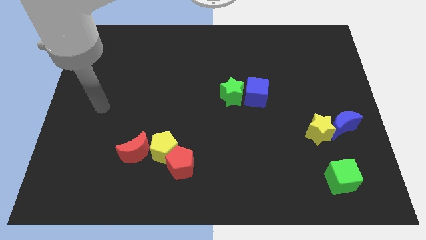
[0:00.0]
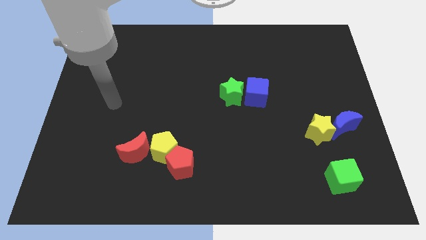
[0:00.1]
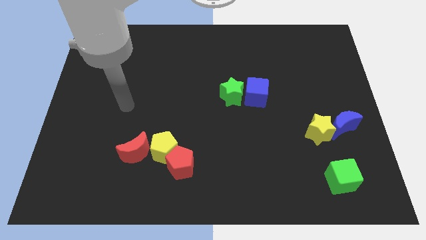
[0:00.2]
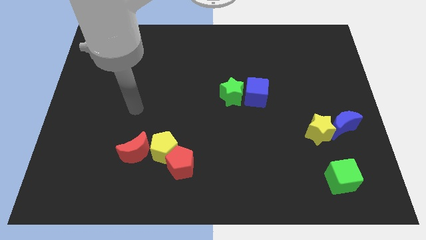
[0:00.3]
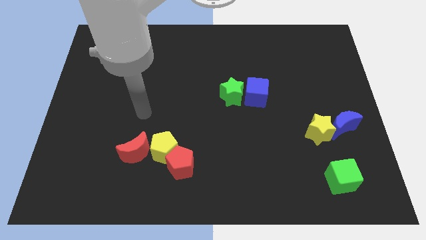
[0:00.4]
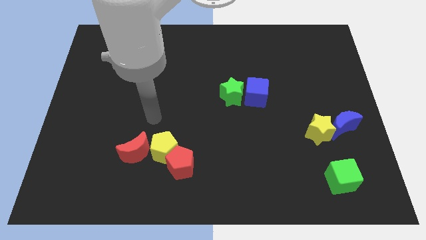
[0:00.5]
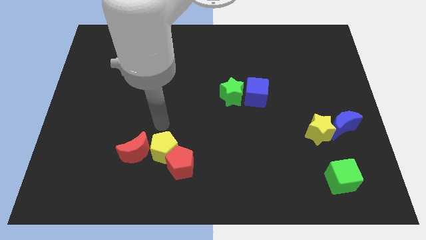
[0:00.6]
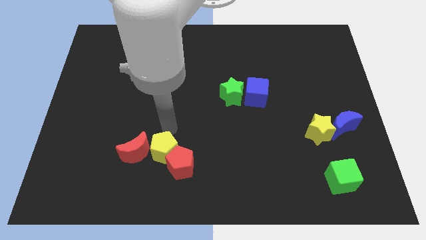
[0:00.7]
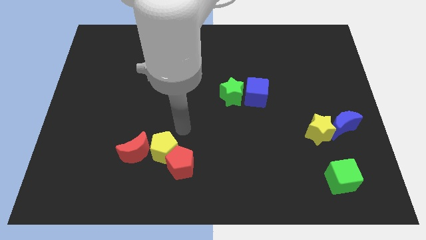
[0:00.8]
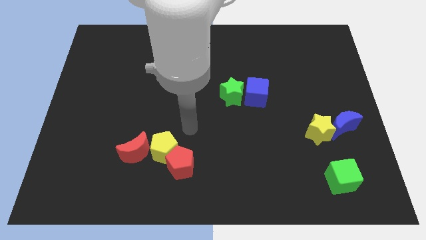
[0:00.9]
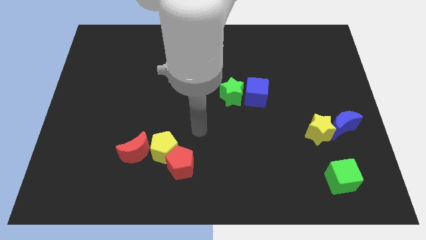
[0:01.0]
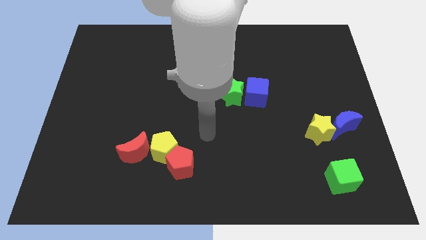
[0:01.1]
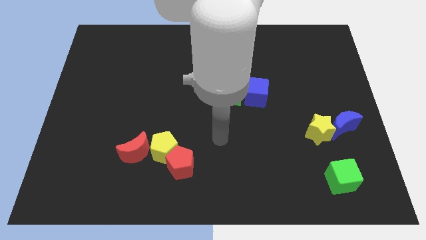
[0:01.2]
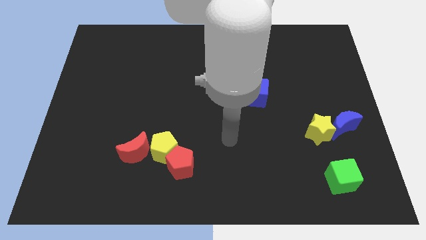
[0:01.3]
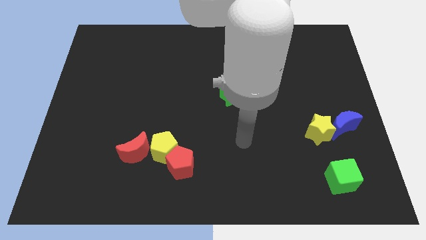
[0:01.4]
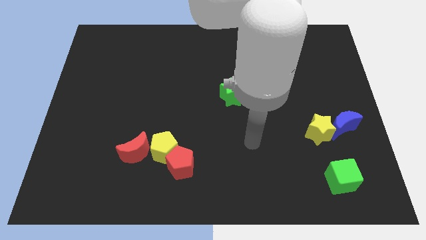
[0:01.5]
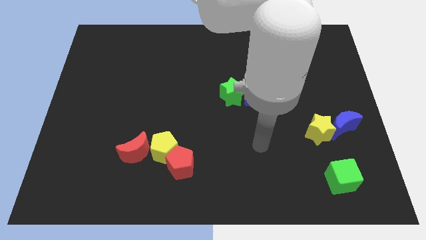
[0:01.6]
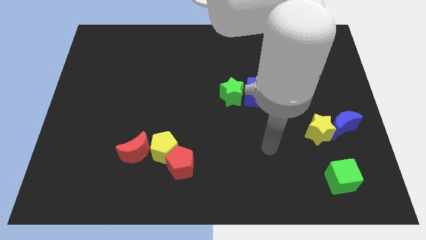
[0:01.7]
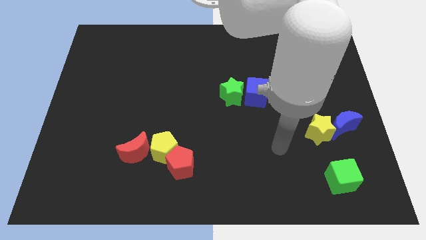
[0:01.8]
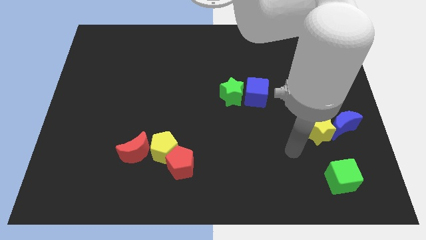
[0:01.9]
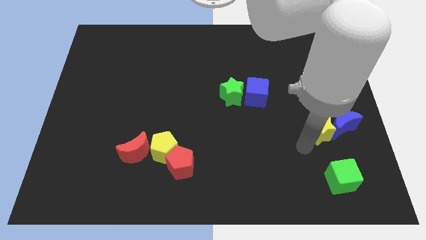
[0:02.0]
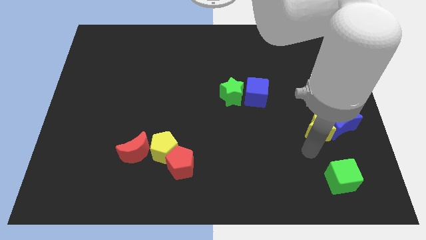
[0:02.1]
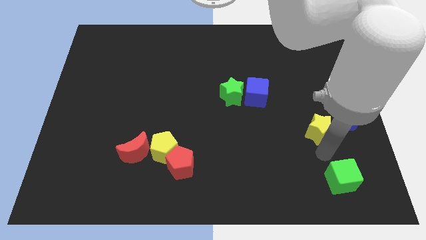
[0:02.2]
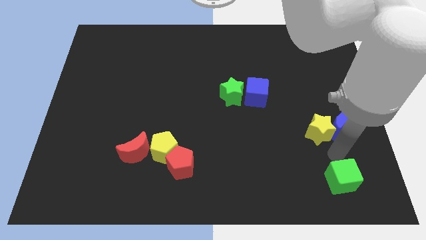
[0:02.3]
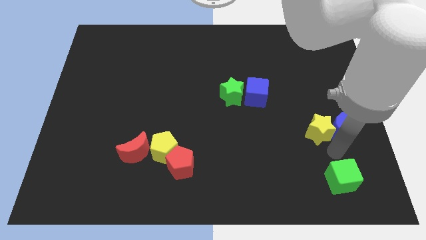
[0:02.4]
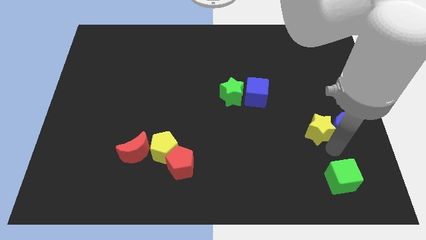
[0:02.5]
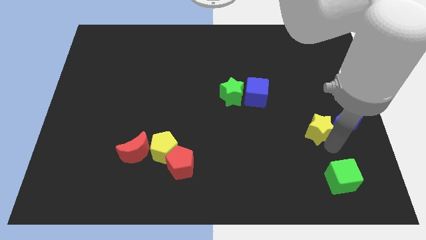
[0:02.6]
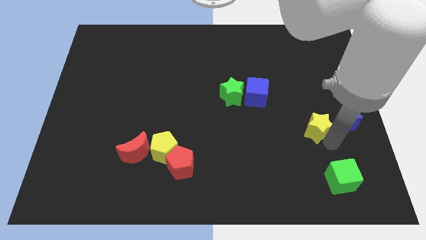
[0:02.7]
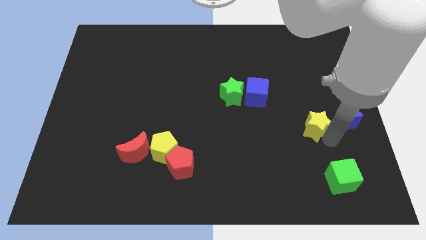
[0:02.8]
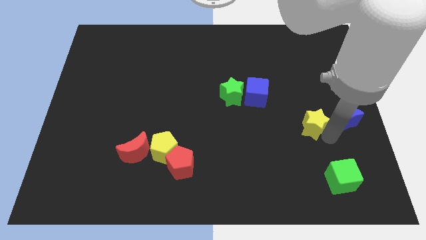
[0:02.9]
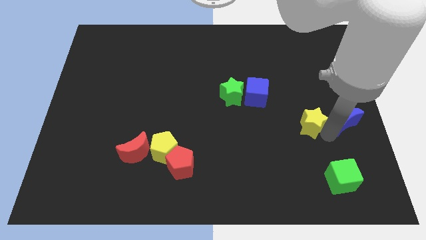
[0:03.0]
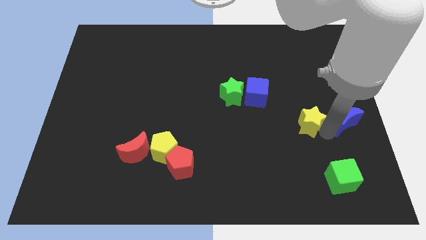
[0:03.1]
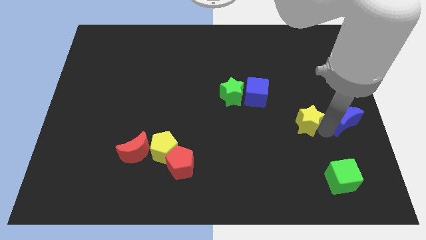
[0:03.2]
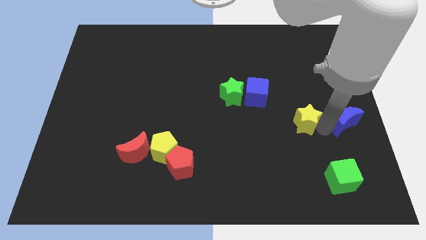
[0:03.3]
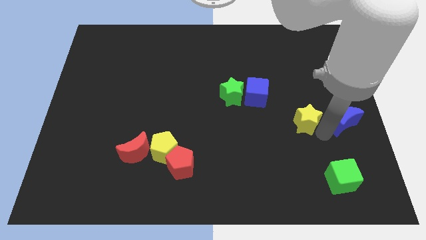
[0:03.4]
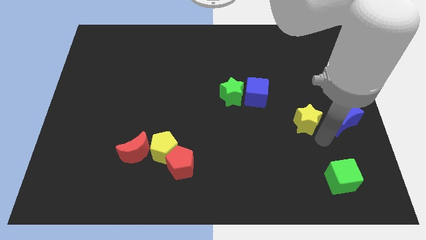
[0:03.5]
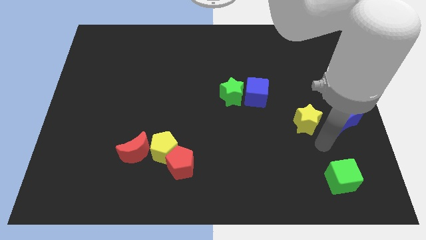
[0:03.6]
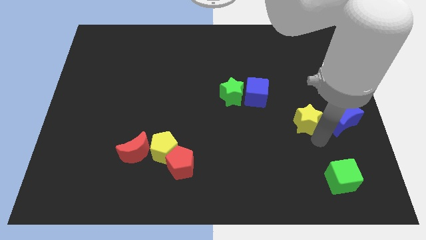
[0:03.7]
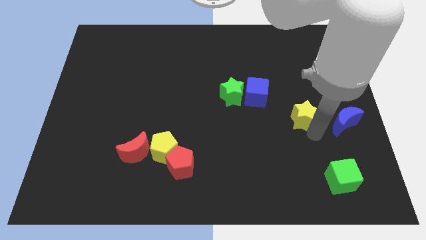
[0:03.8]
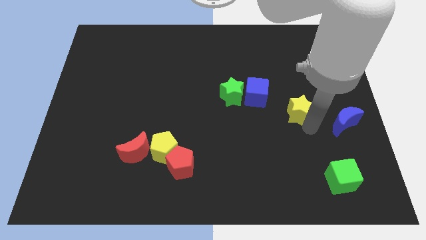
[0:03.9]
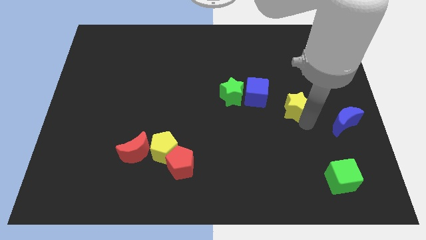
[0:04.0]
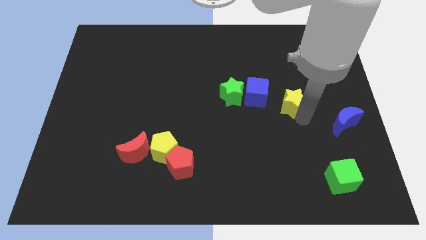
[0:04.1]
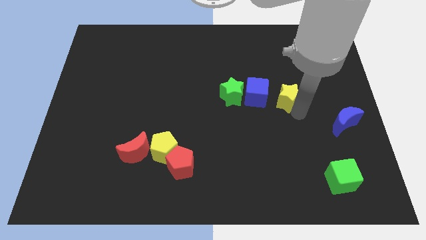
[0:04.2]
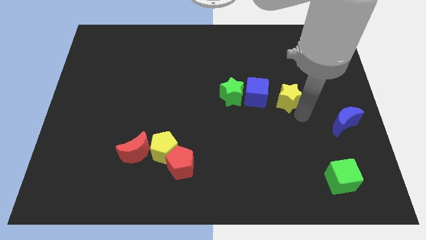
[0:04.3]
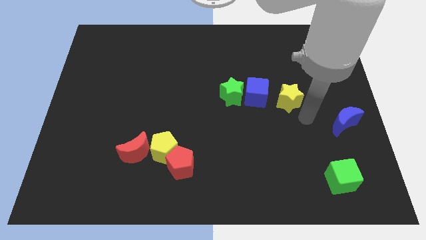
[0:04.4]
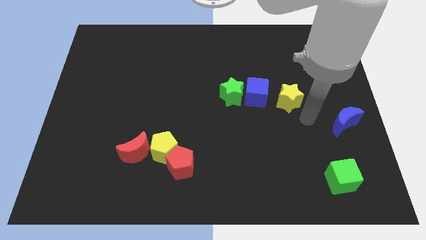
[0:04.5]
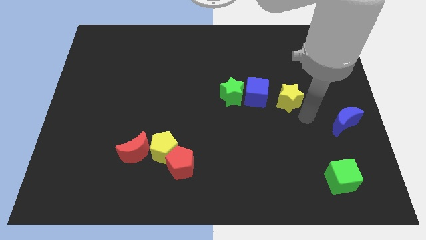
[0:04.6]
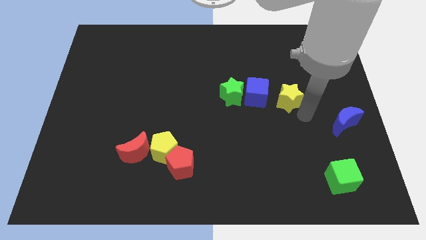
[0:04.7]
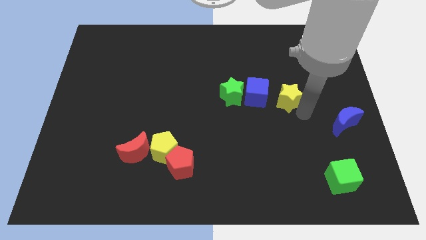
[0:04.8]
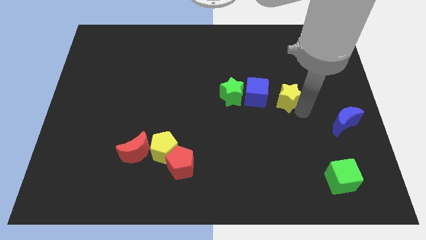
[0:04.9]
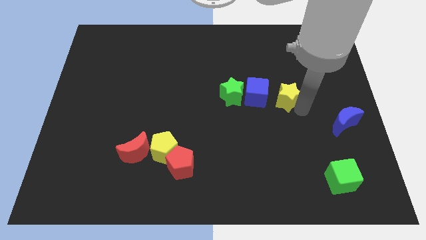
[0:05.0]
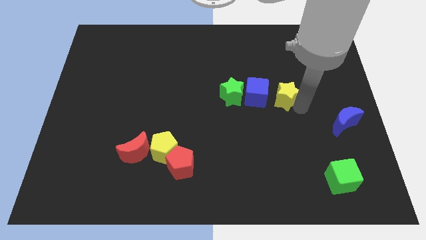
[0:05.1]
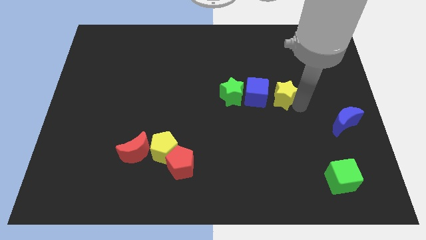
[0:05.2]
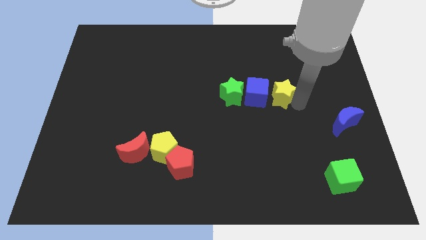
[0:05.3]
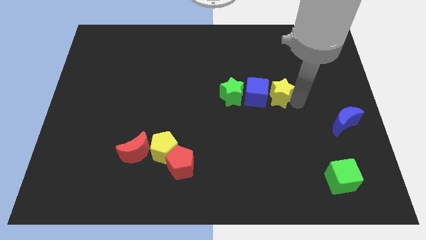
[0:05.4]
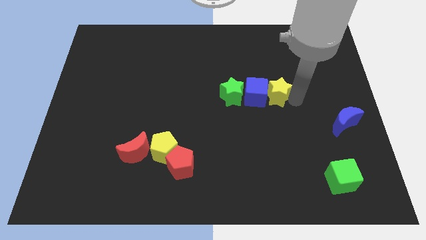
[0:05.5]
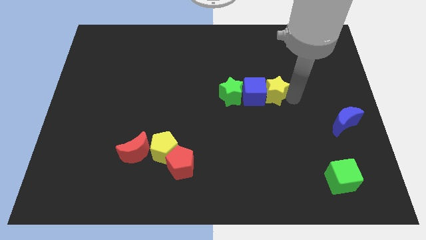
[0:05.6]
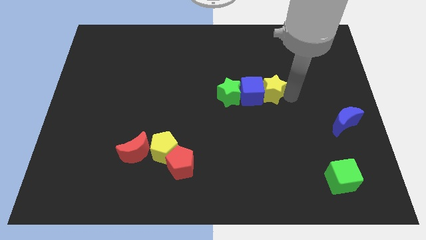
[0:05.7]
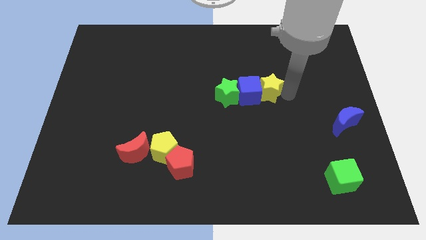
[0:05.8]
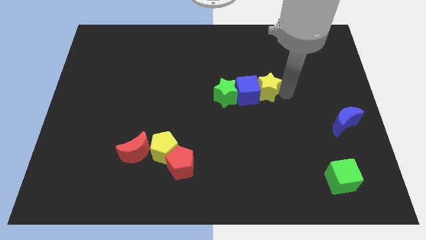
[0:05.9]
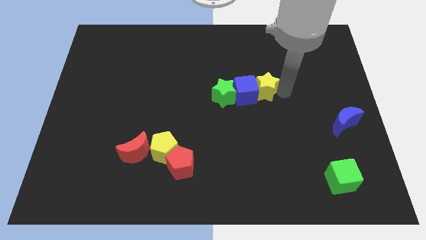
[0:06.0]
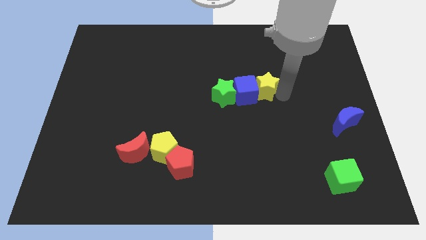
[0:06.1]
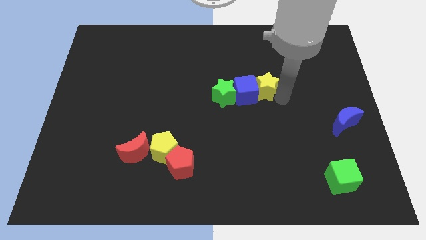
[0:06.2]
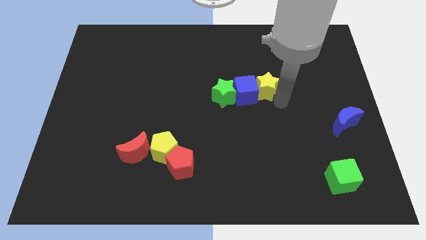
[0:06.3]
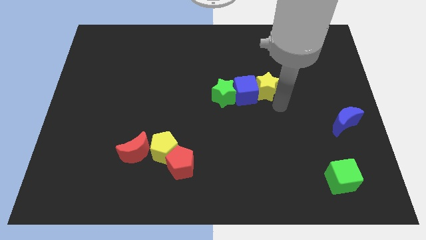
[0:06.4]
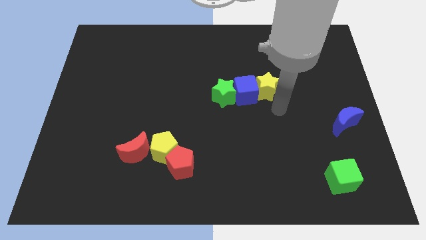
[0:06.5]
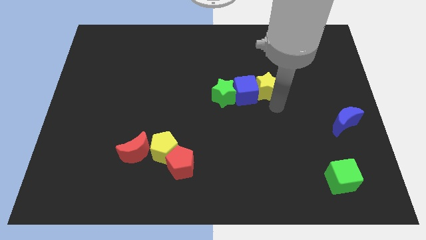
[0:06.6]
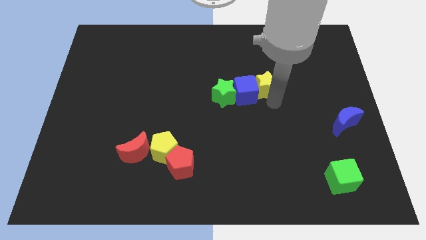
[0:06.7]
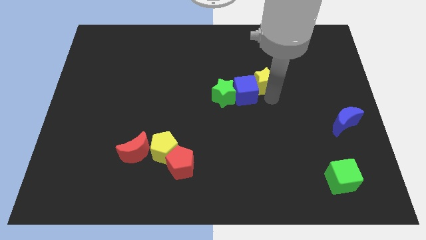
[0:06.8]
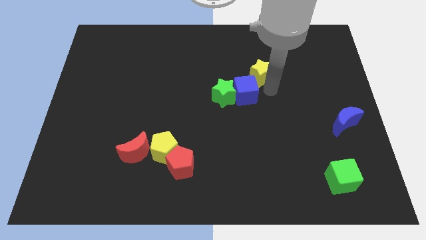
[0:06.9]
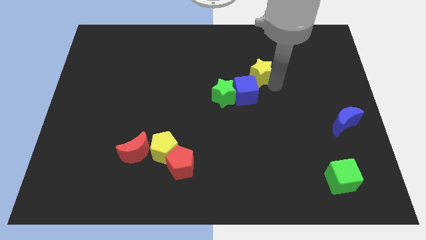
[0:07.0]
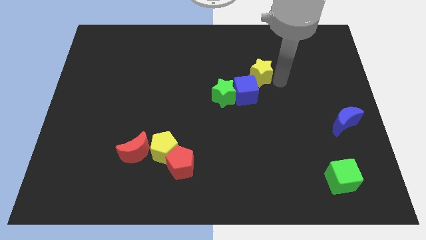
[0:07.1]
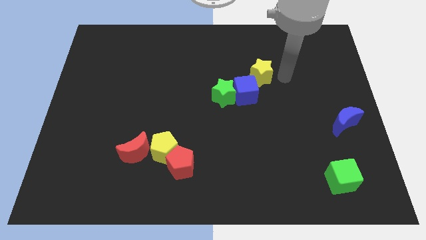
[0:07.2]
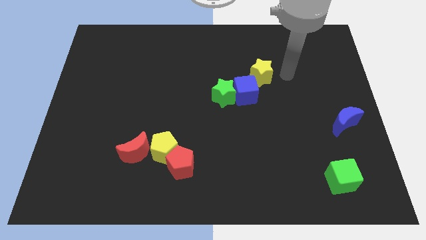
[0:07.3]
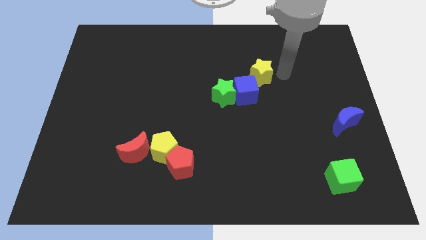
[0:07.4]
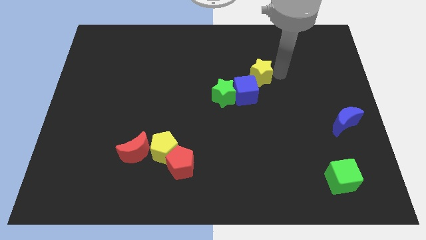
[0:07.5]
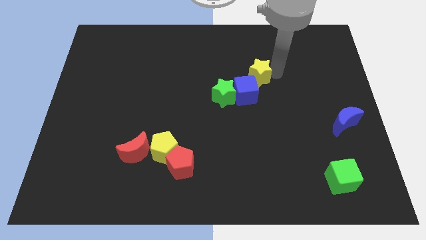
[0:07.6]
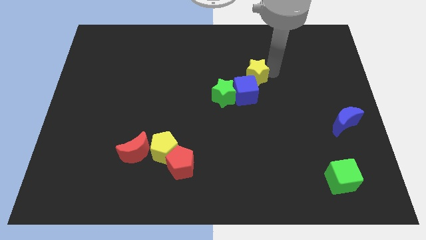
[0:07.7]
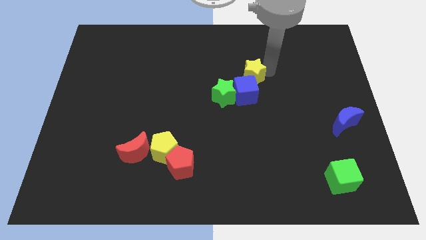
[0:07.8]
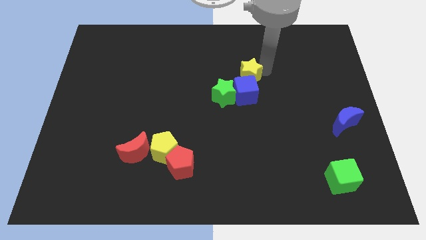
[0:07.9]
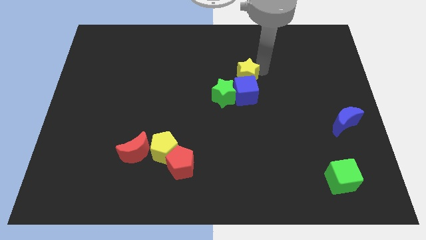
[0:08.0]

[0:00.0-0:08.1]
put the yellow star diagonally up and to the left of the blue cube
